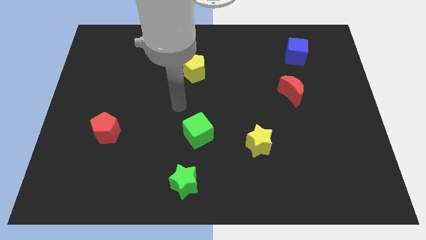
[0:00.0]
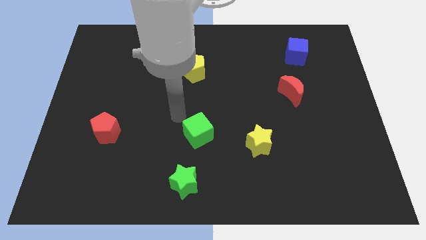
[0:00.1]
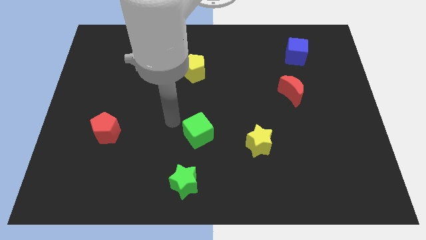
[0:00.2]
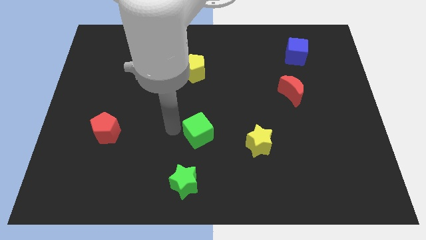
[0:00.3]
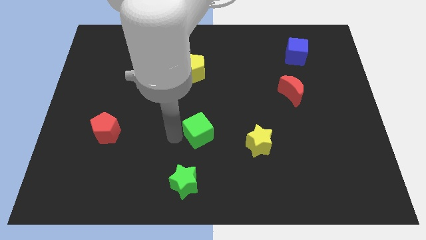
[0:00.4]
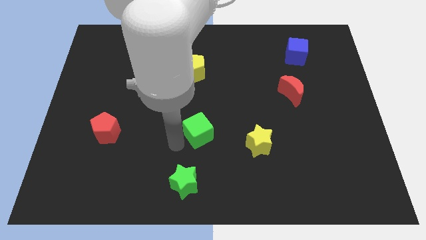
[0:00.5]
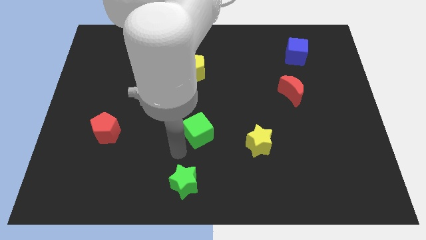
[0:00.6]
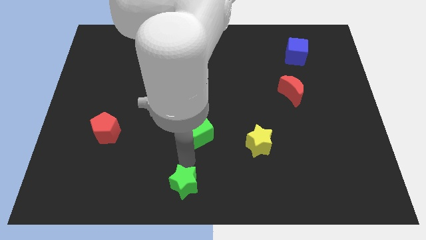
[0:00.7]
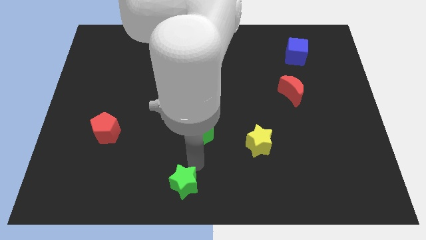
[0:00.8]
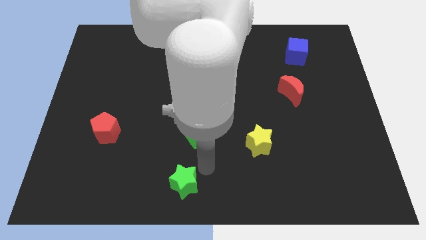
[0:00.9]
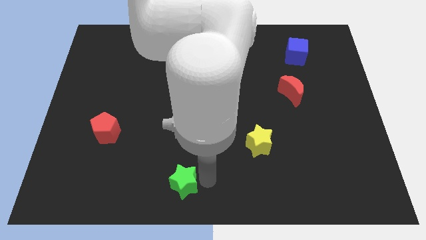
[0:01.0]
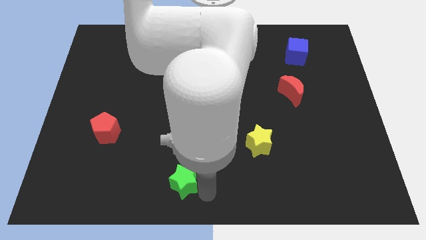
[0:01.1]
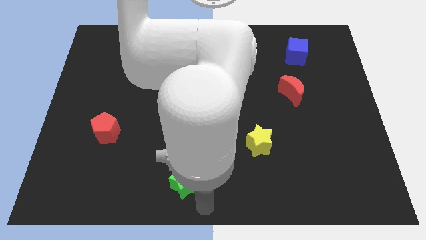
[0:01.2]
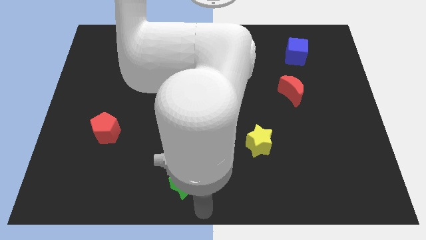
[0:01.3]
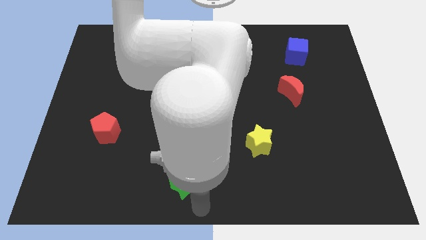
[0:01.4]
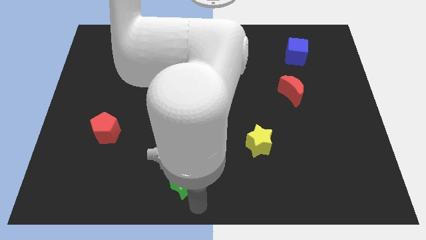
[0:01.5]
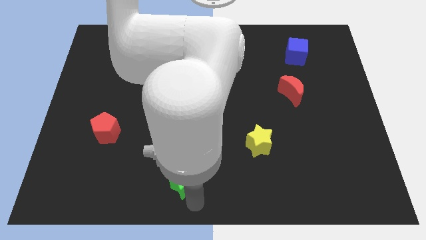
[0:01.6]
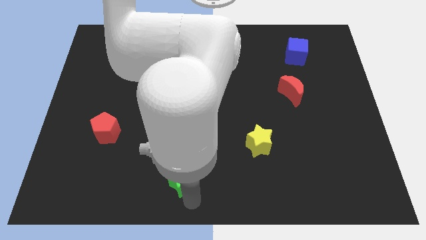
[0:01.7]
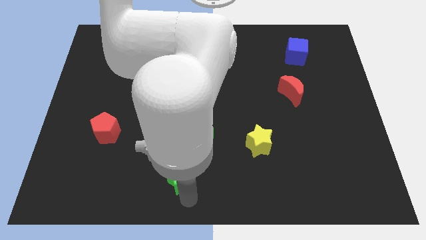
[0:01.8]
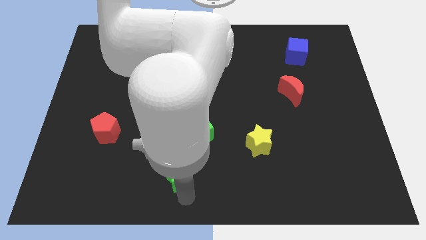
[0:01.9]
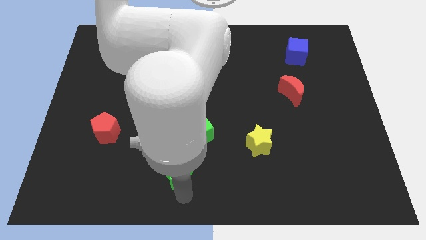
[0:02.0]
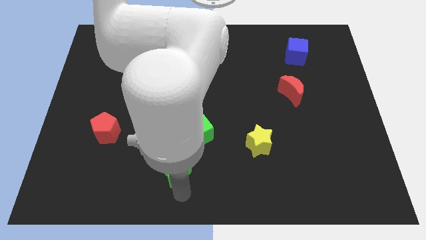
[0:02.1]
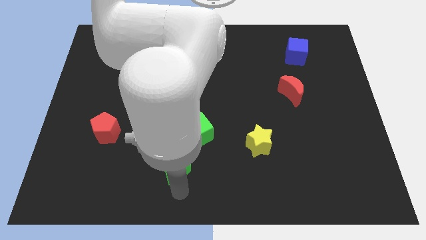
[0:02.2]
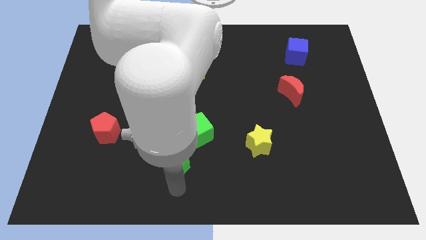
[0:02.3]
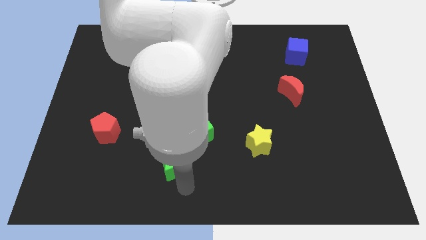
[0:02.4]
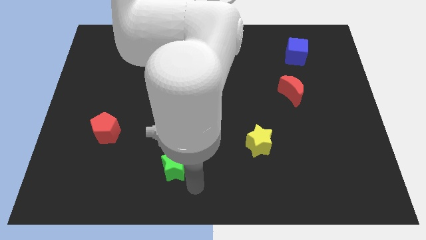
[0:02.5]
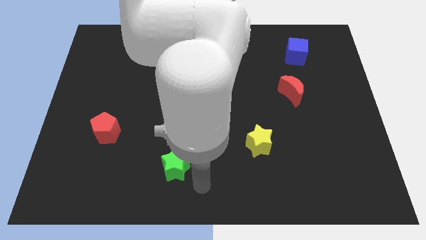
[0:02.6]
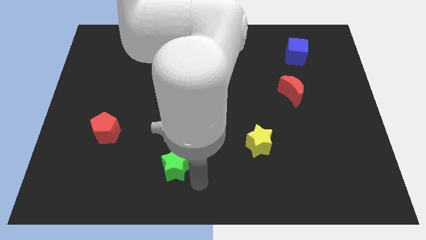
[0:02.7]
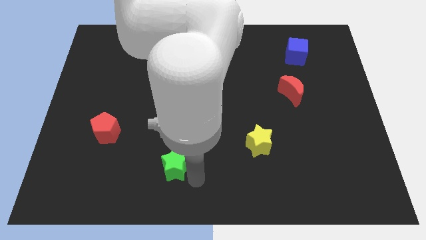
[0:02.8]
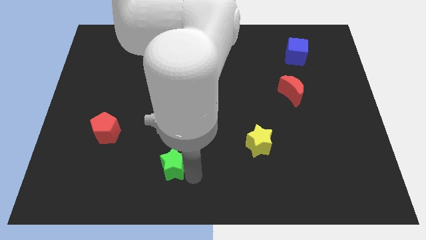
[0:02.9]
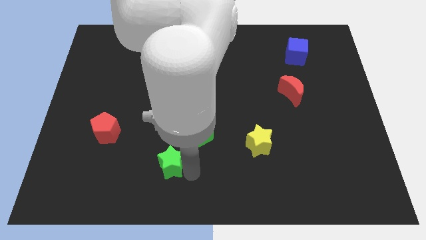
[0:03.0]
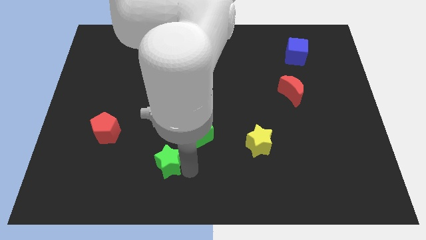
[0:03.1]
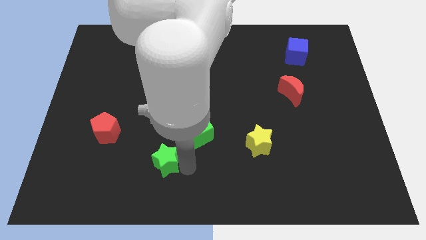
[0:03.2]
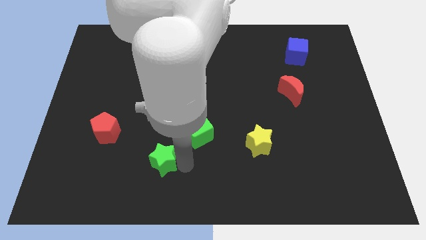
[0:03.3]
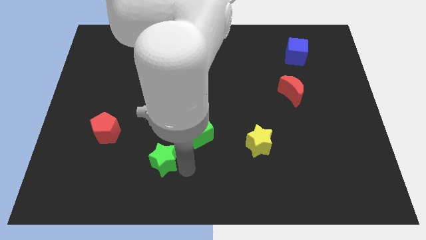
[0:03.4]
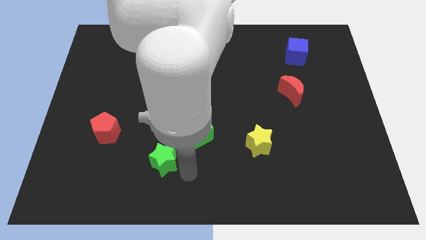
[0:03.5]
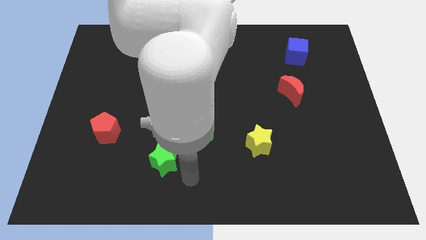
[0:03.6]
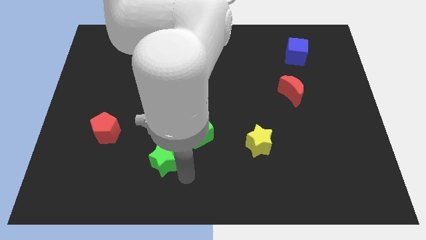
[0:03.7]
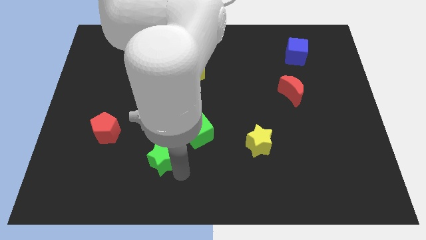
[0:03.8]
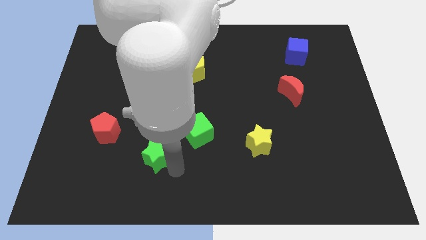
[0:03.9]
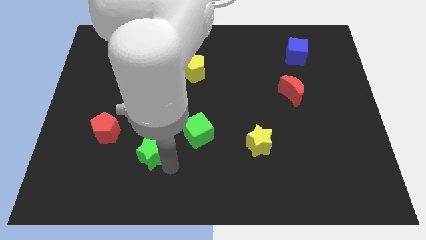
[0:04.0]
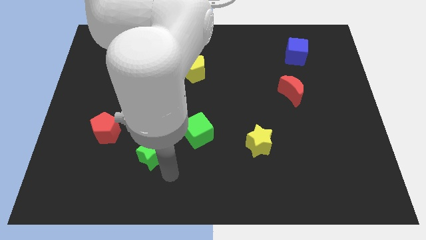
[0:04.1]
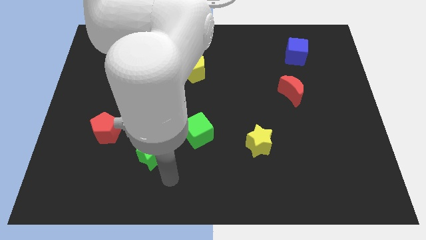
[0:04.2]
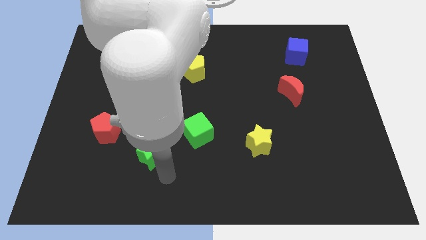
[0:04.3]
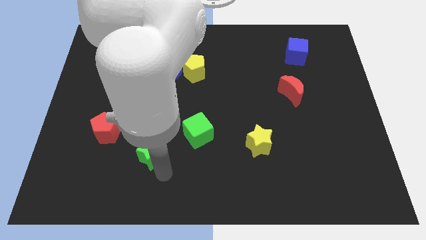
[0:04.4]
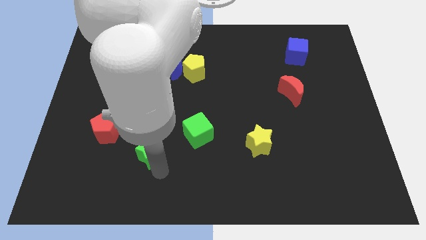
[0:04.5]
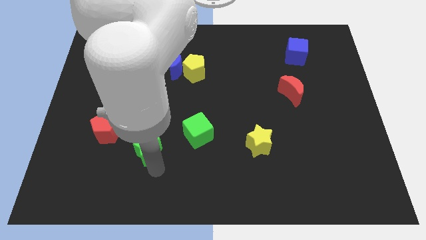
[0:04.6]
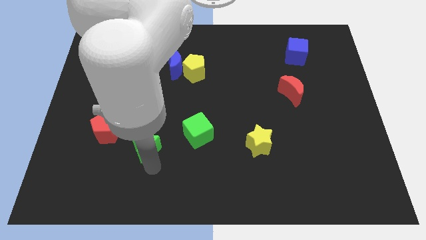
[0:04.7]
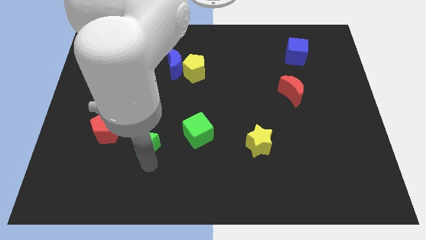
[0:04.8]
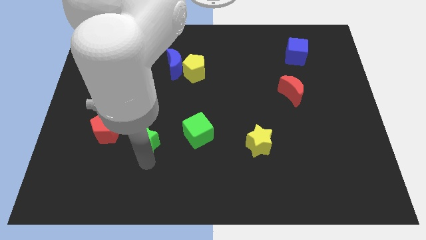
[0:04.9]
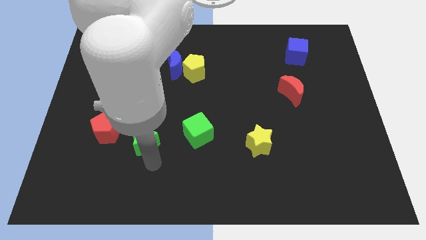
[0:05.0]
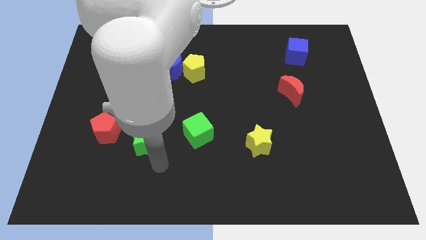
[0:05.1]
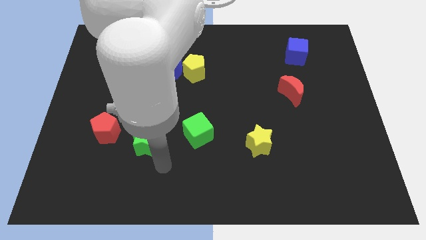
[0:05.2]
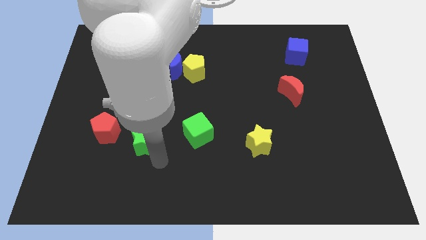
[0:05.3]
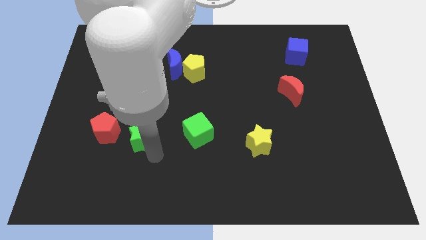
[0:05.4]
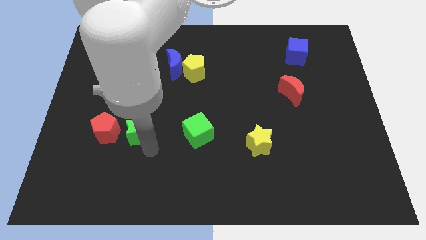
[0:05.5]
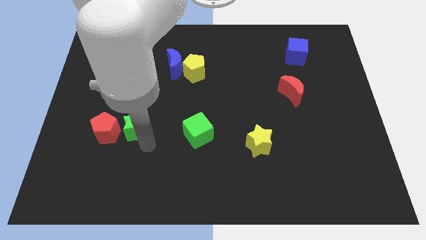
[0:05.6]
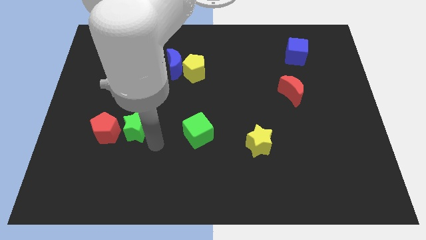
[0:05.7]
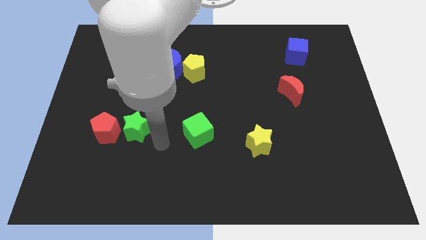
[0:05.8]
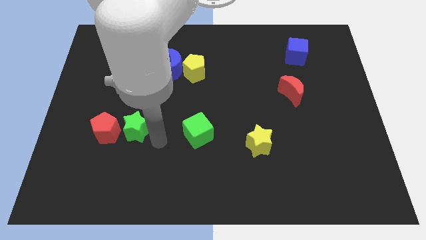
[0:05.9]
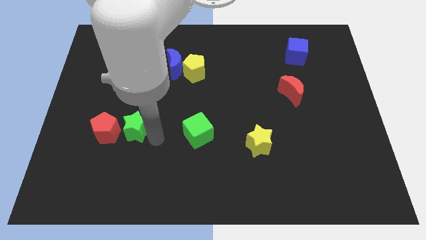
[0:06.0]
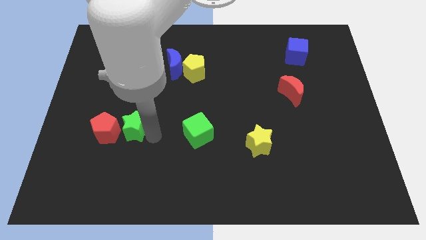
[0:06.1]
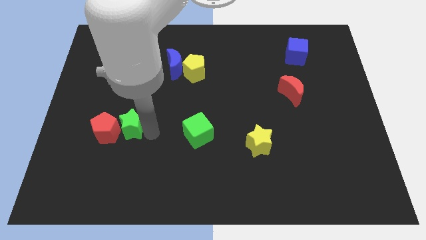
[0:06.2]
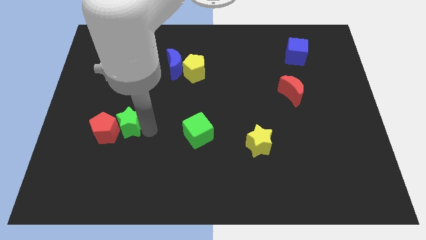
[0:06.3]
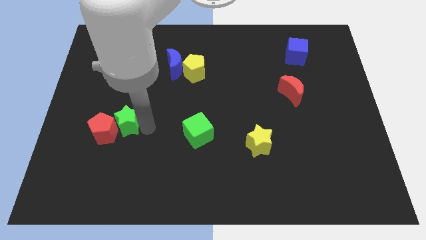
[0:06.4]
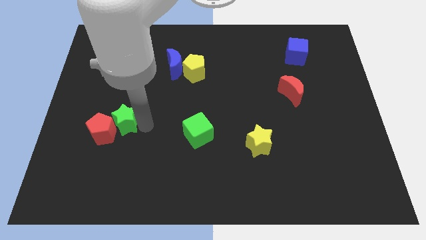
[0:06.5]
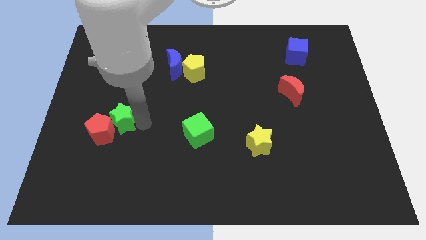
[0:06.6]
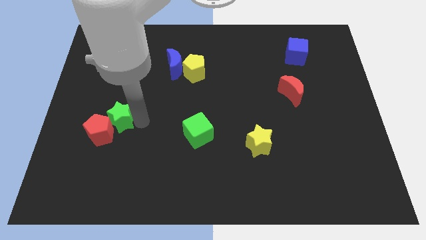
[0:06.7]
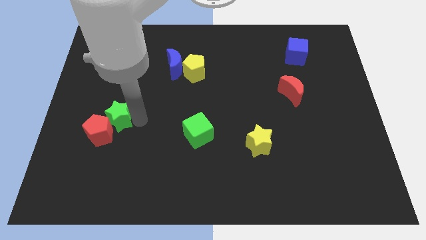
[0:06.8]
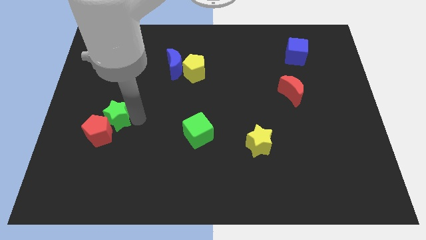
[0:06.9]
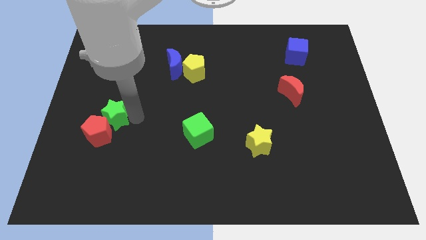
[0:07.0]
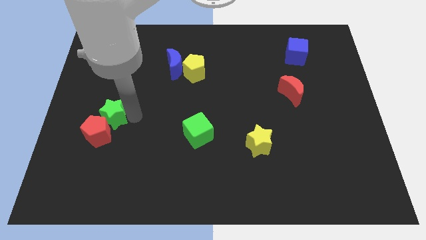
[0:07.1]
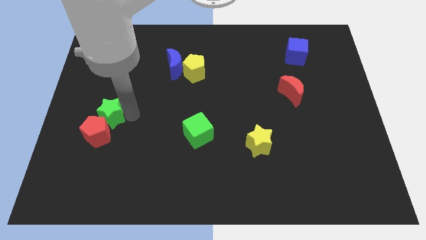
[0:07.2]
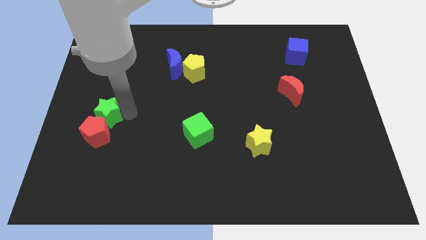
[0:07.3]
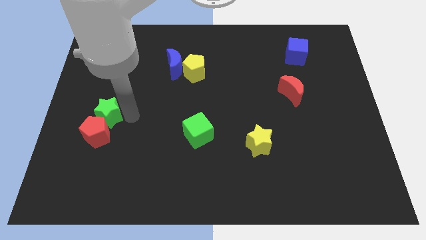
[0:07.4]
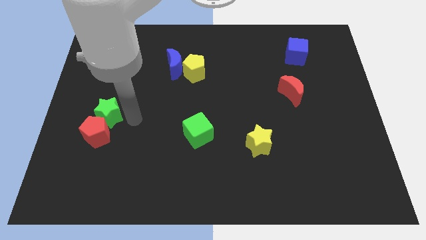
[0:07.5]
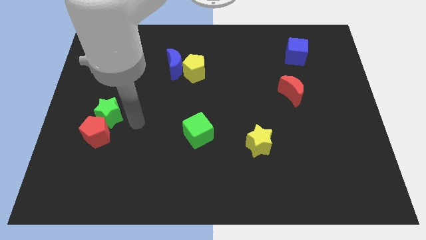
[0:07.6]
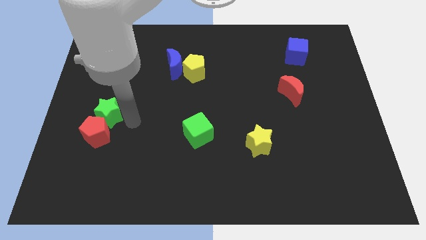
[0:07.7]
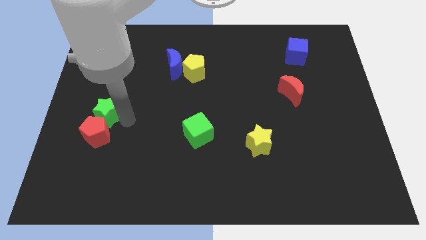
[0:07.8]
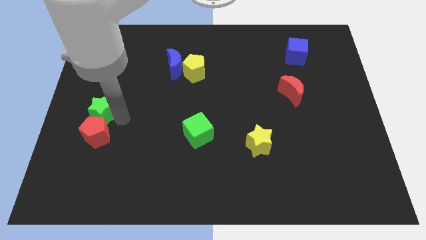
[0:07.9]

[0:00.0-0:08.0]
slide the green star to the center left
